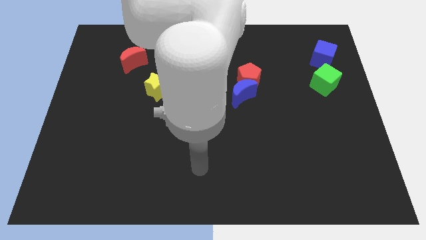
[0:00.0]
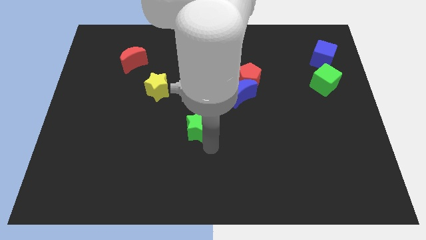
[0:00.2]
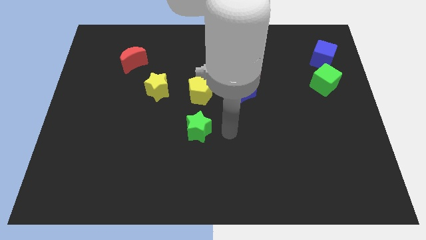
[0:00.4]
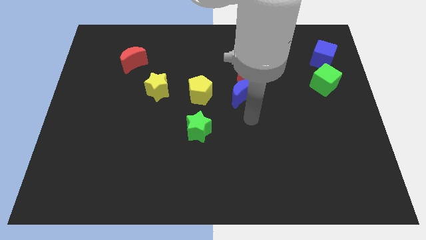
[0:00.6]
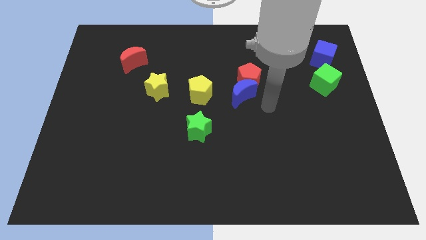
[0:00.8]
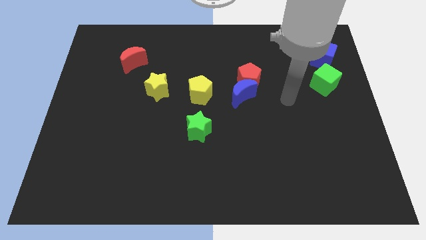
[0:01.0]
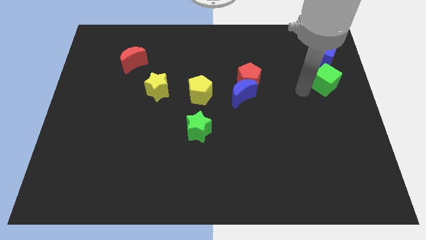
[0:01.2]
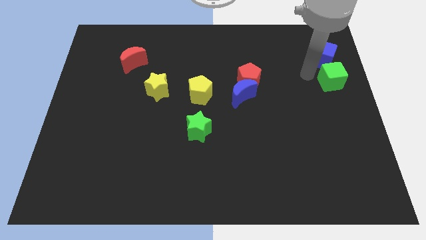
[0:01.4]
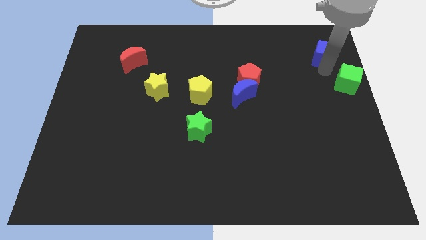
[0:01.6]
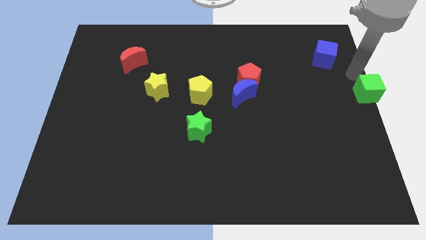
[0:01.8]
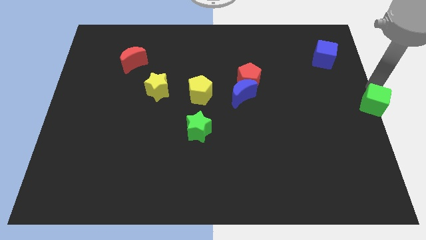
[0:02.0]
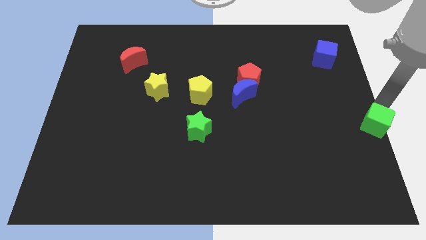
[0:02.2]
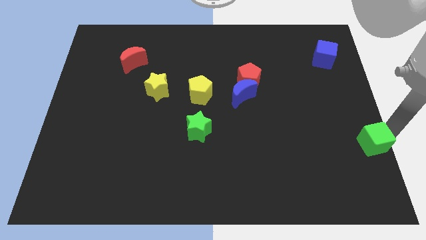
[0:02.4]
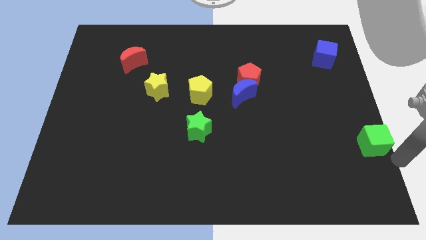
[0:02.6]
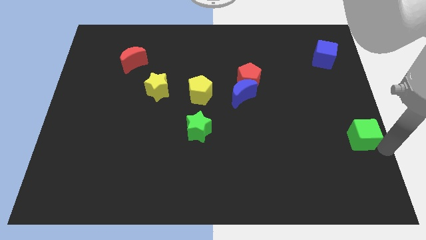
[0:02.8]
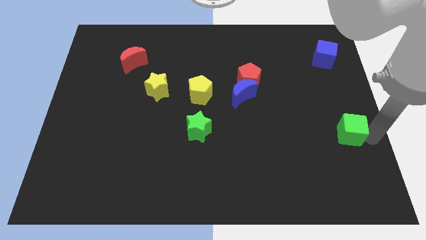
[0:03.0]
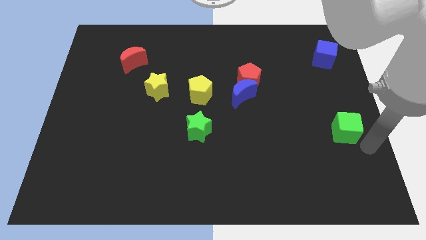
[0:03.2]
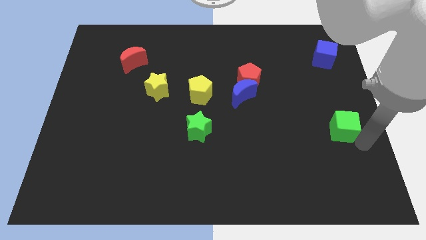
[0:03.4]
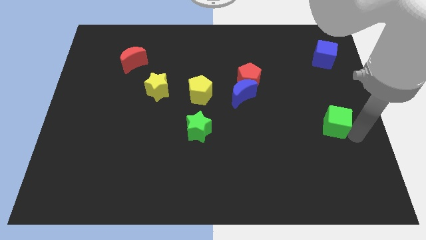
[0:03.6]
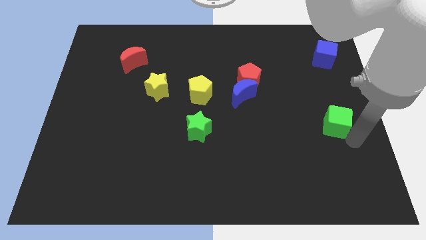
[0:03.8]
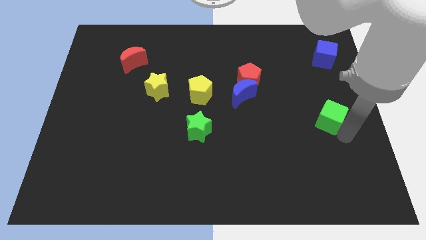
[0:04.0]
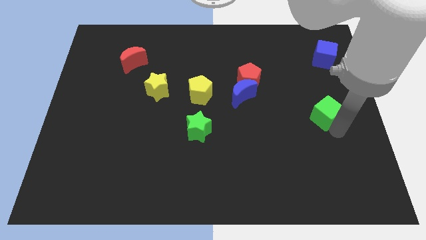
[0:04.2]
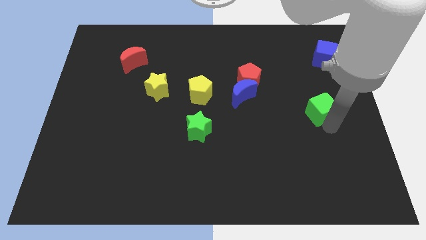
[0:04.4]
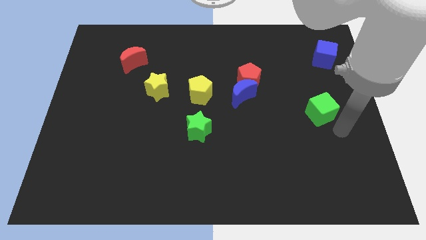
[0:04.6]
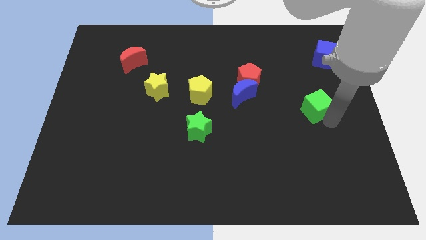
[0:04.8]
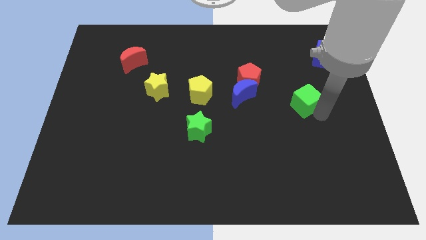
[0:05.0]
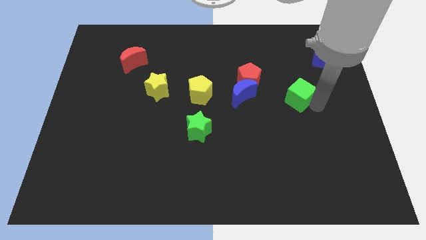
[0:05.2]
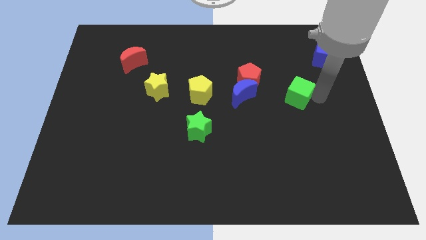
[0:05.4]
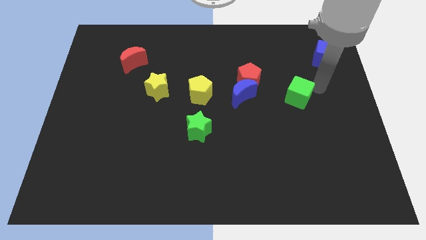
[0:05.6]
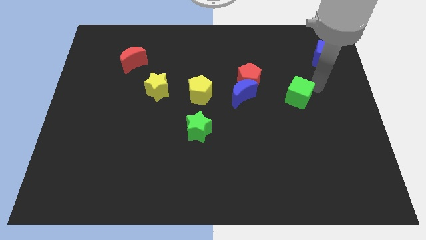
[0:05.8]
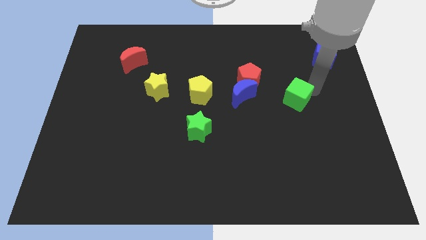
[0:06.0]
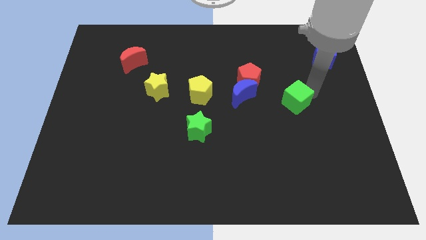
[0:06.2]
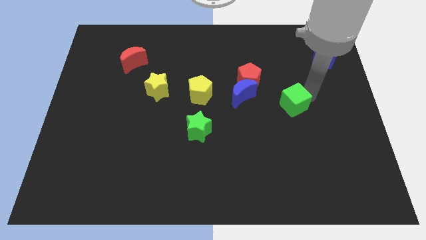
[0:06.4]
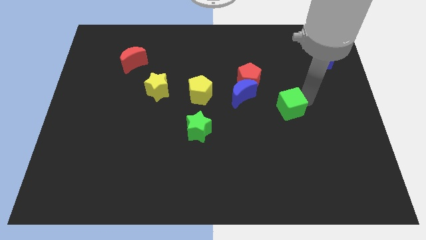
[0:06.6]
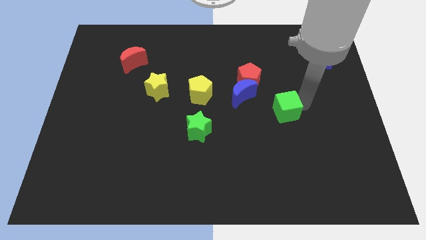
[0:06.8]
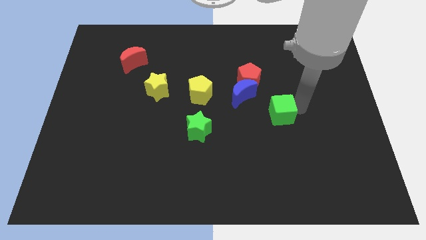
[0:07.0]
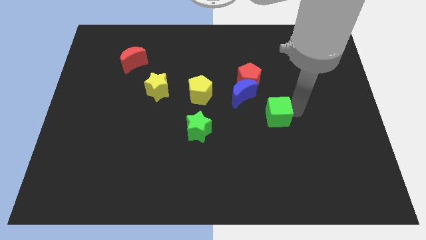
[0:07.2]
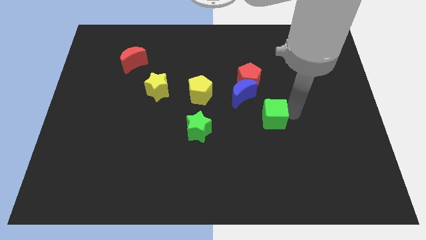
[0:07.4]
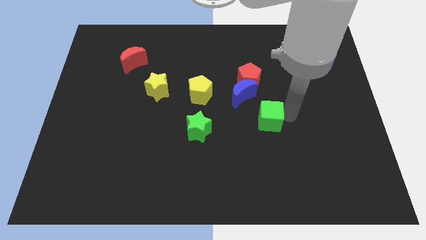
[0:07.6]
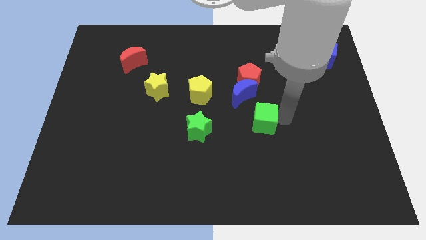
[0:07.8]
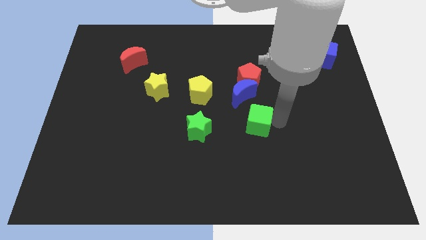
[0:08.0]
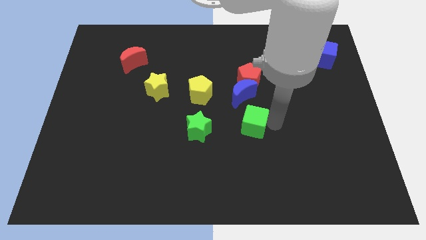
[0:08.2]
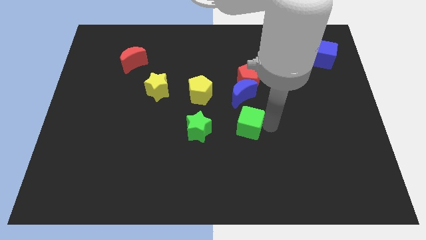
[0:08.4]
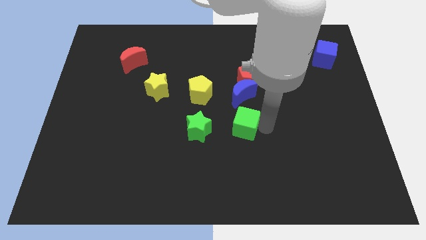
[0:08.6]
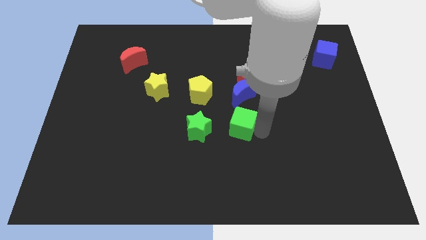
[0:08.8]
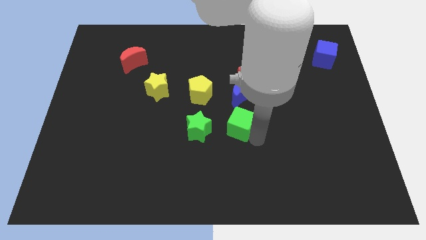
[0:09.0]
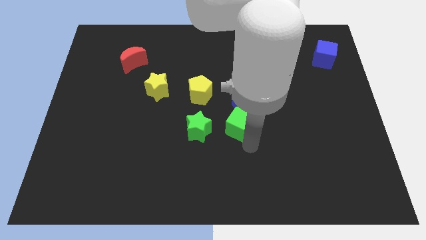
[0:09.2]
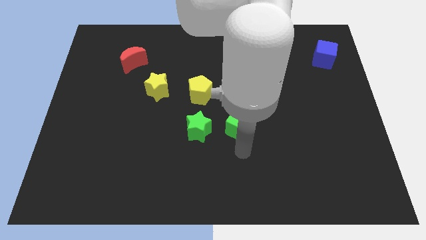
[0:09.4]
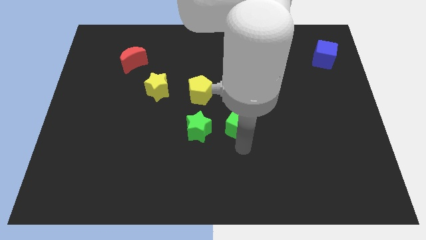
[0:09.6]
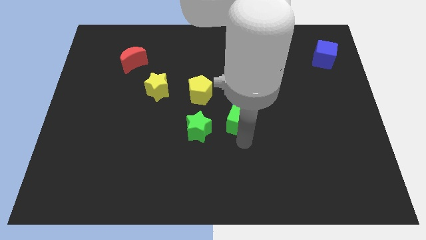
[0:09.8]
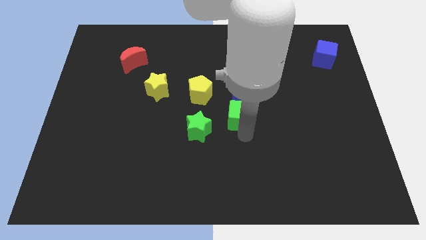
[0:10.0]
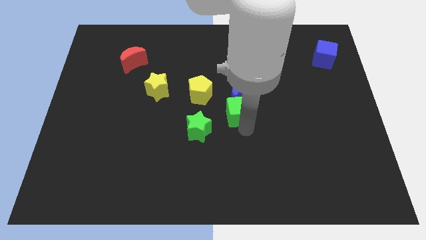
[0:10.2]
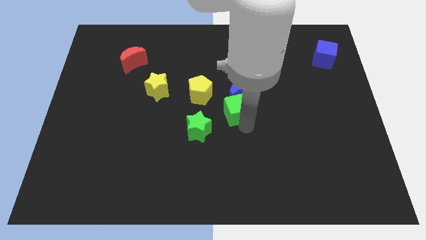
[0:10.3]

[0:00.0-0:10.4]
move the green cube to the bottom left of the red pentagon

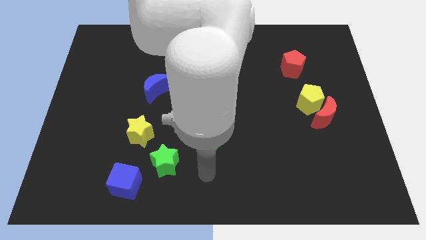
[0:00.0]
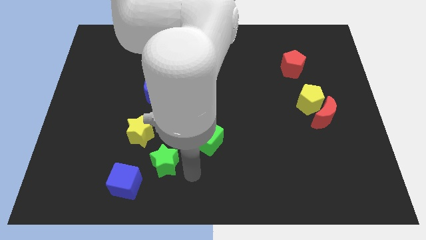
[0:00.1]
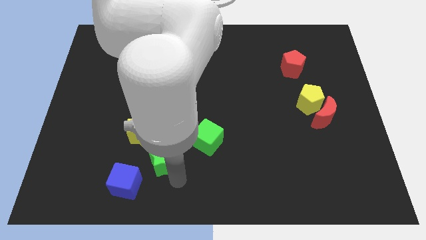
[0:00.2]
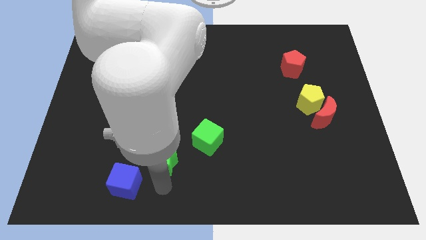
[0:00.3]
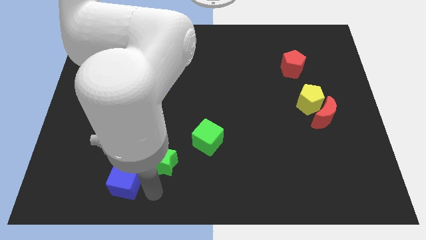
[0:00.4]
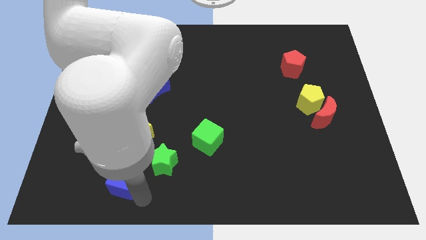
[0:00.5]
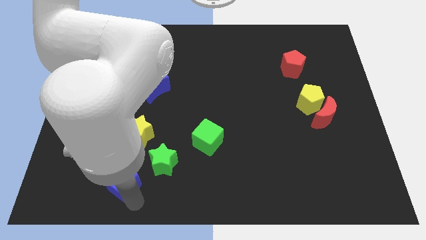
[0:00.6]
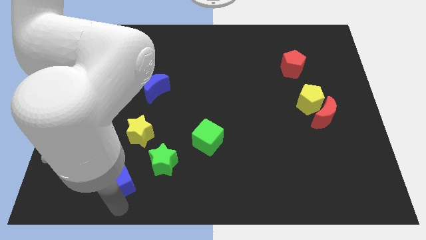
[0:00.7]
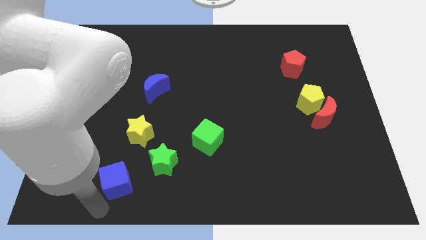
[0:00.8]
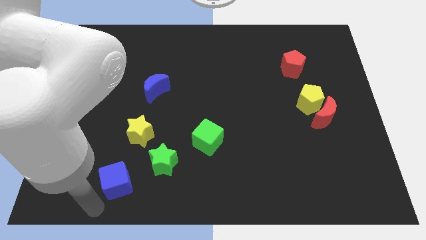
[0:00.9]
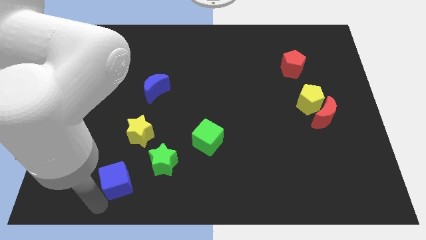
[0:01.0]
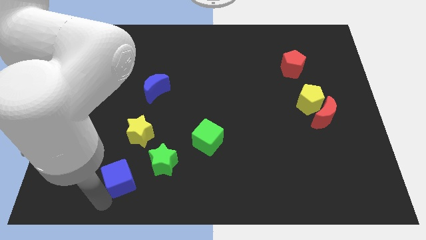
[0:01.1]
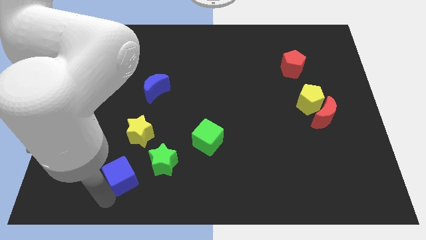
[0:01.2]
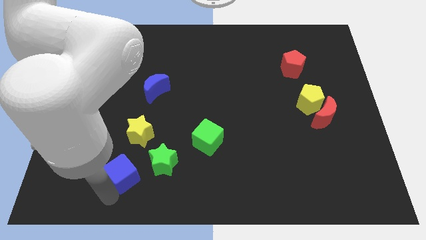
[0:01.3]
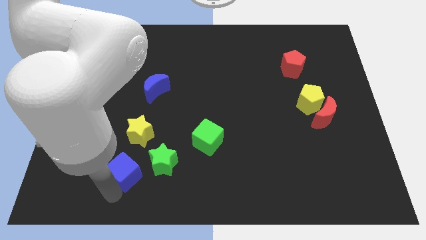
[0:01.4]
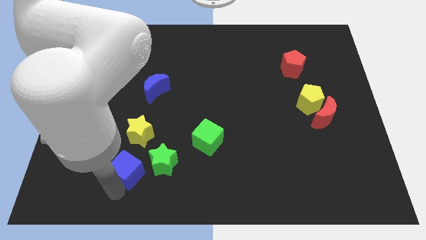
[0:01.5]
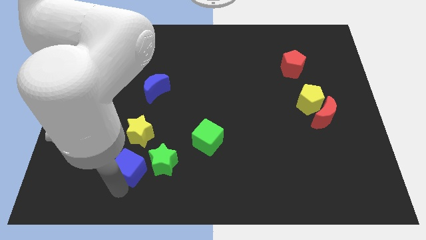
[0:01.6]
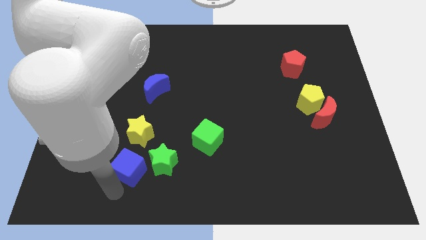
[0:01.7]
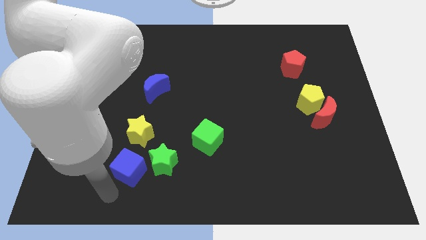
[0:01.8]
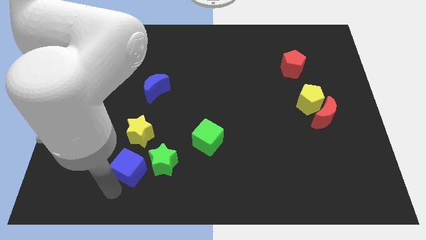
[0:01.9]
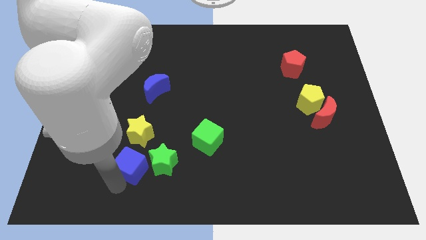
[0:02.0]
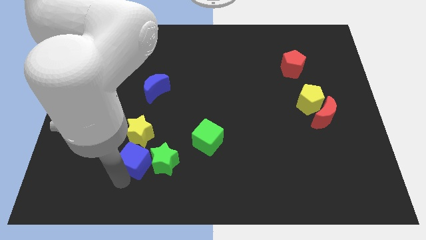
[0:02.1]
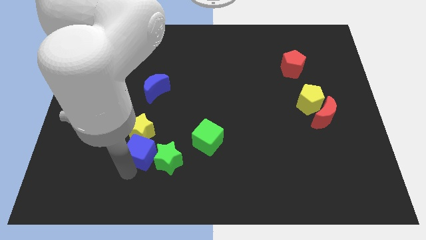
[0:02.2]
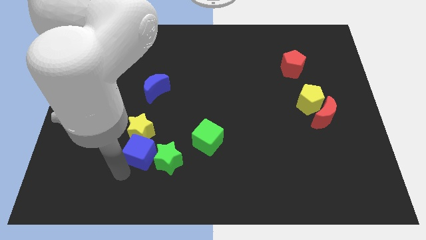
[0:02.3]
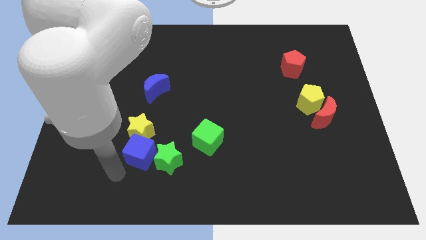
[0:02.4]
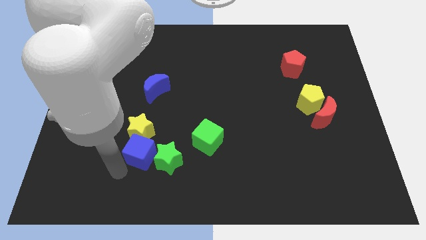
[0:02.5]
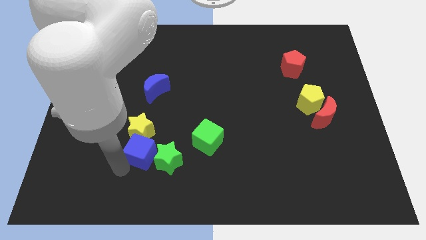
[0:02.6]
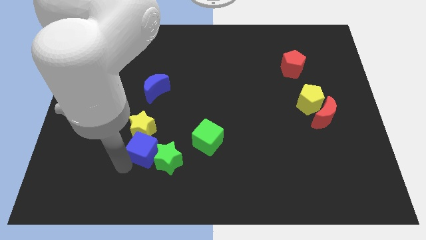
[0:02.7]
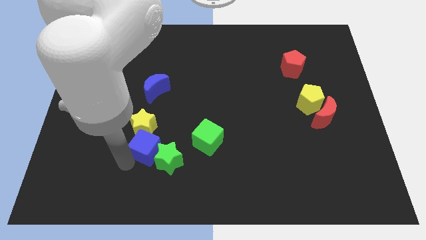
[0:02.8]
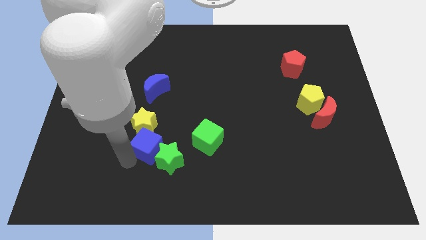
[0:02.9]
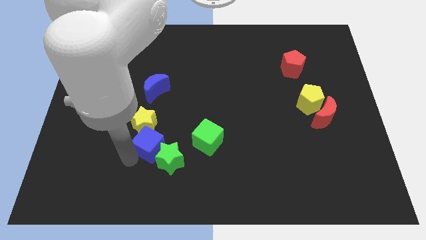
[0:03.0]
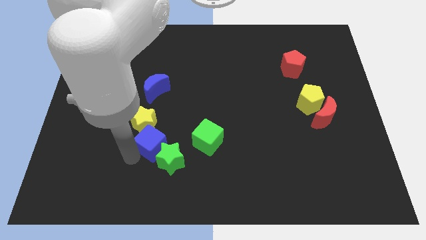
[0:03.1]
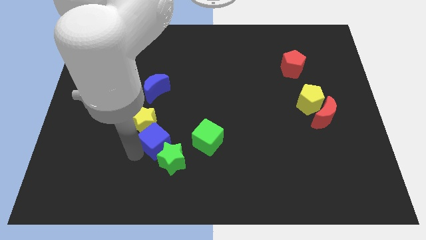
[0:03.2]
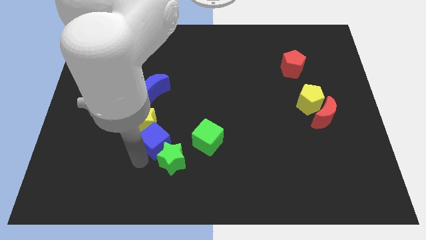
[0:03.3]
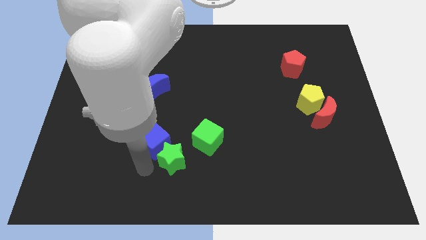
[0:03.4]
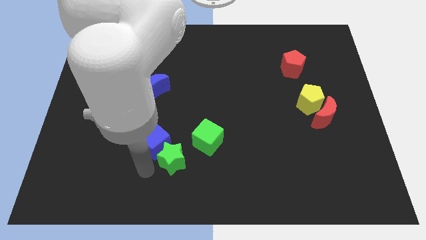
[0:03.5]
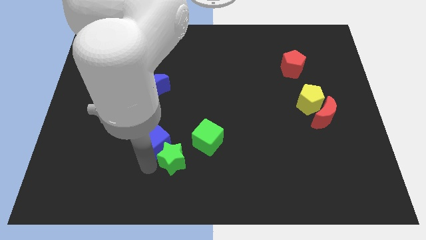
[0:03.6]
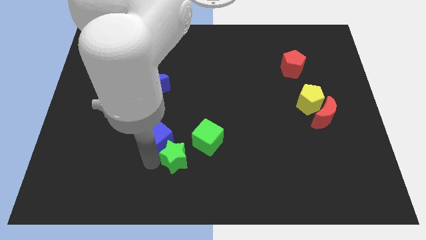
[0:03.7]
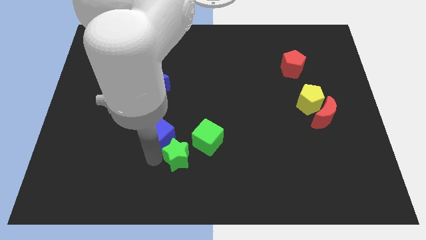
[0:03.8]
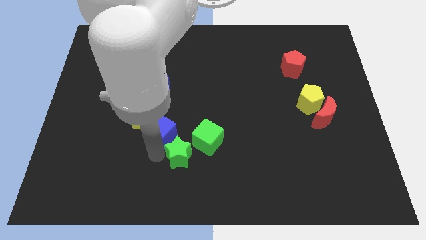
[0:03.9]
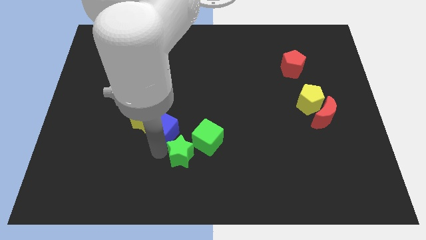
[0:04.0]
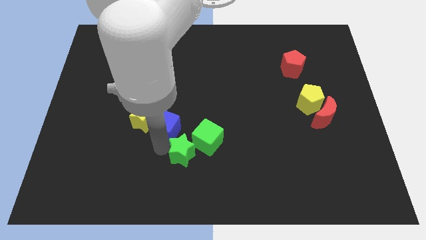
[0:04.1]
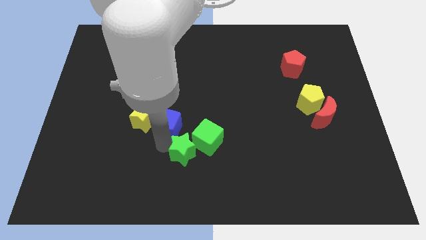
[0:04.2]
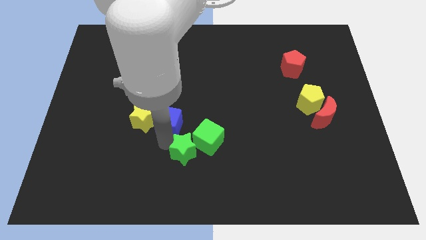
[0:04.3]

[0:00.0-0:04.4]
move the blue cube diagonally up and to the right of the yellow star
